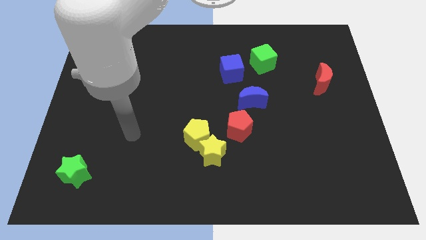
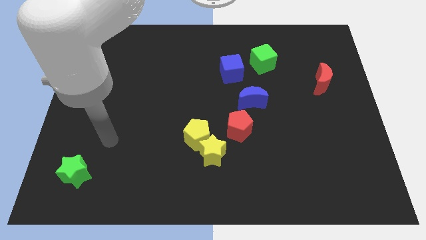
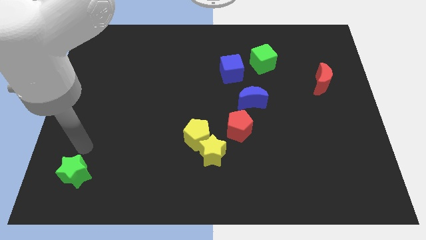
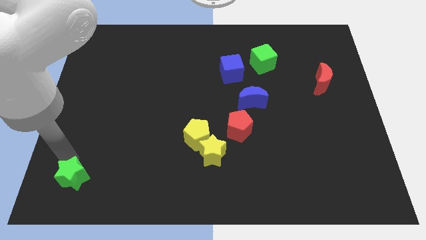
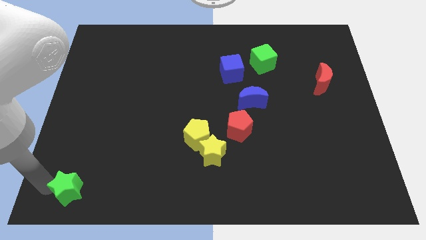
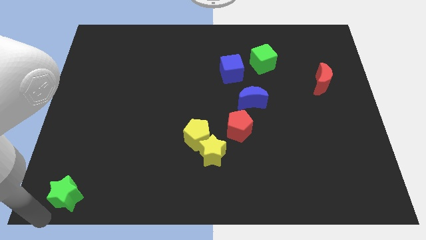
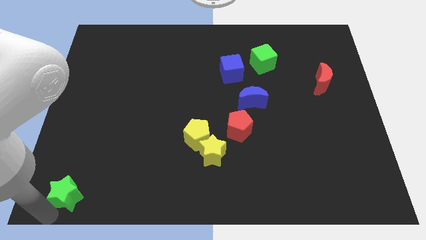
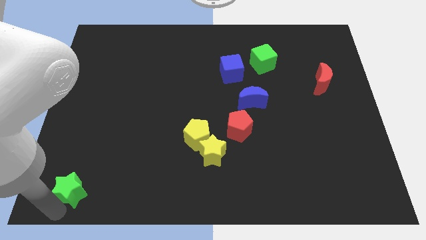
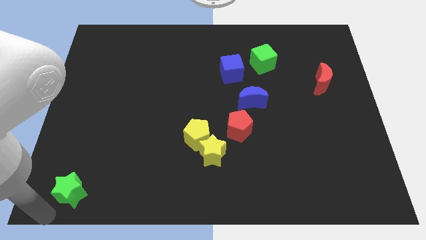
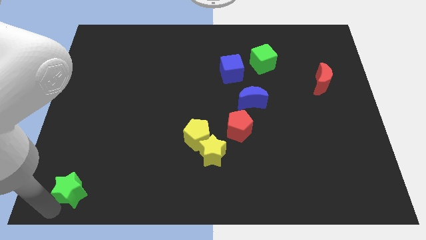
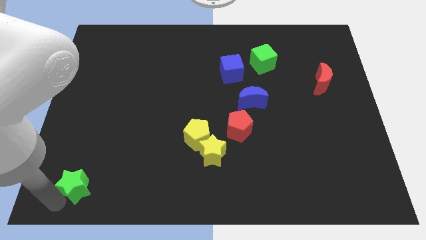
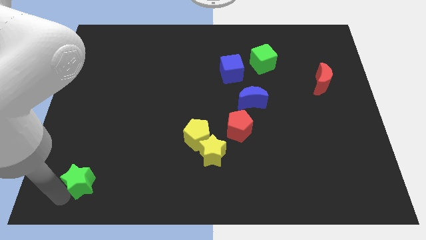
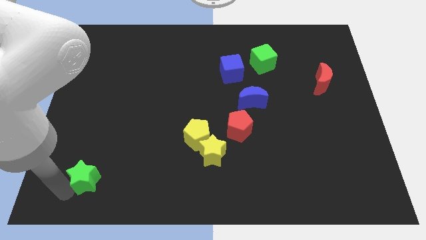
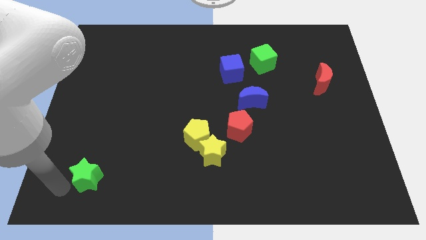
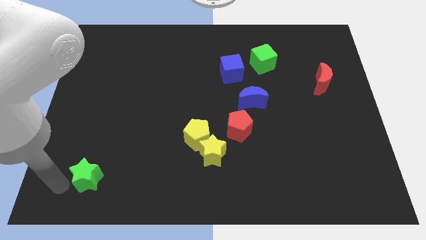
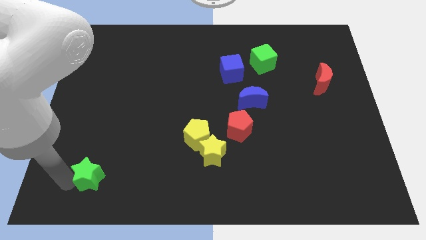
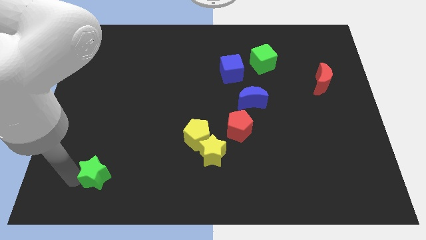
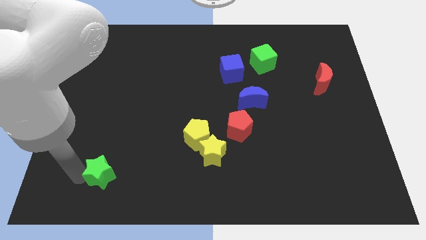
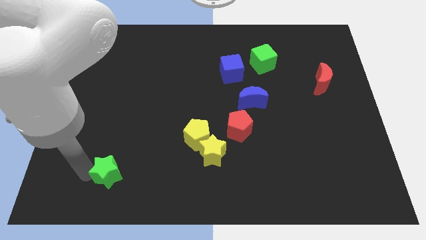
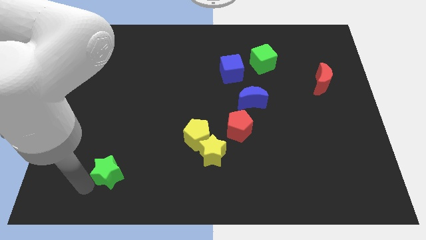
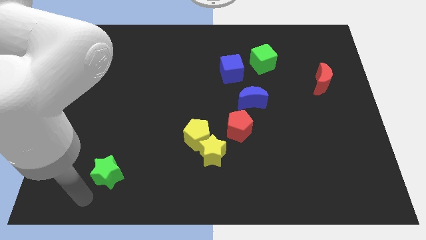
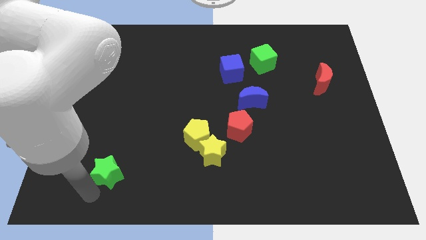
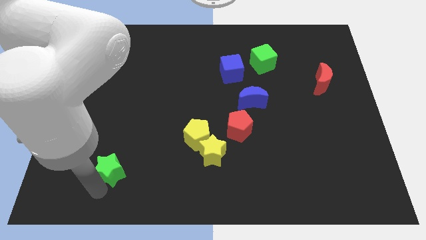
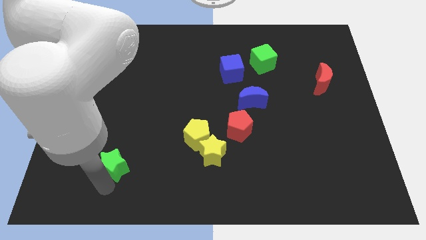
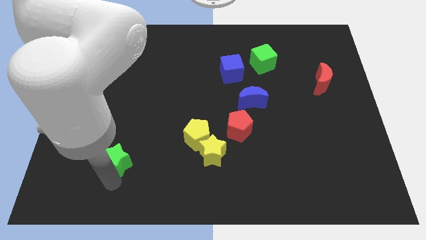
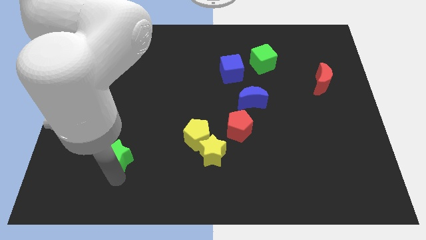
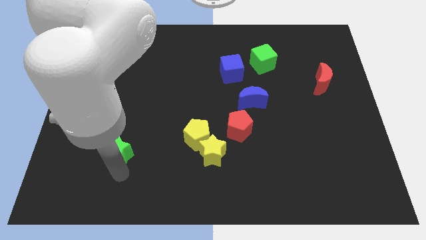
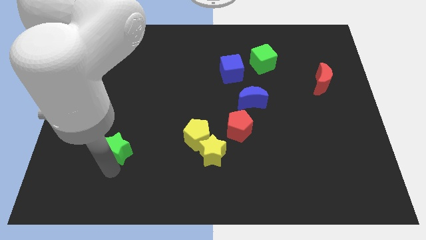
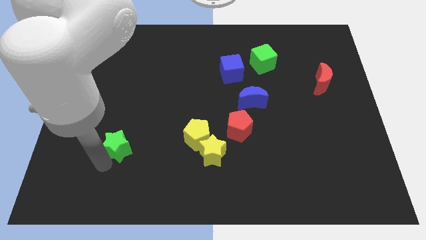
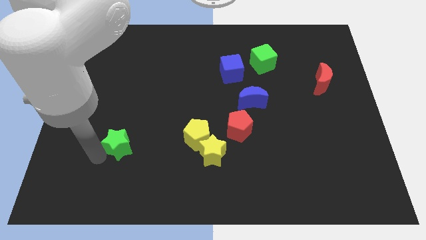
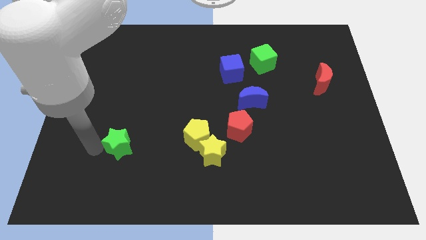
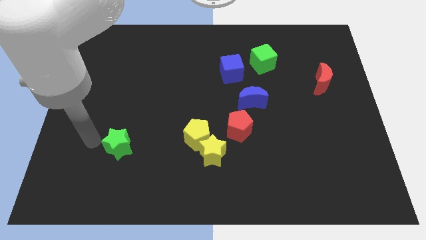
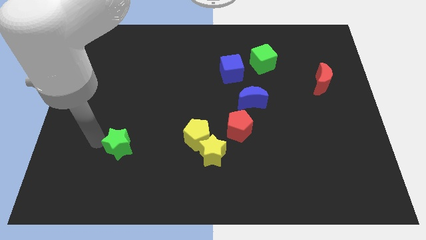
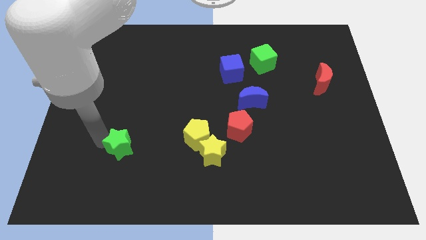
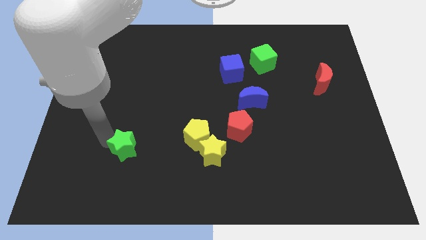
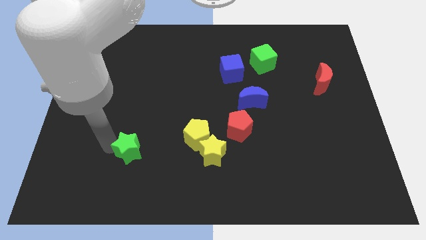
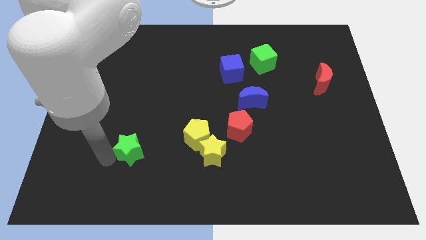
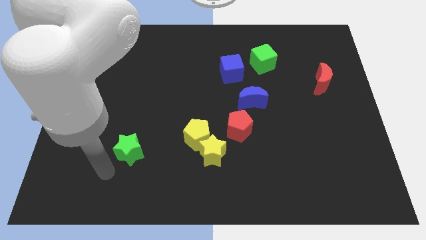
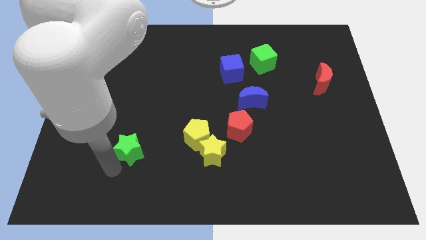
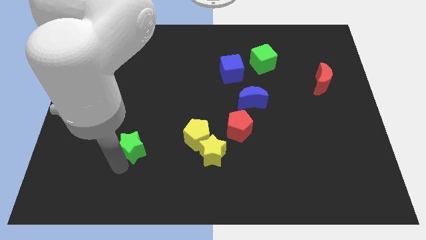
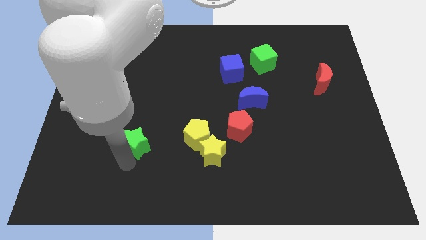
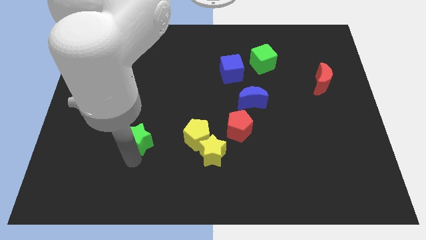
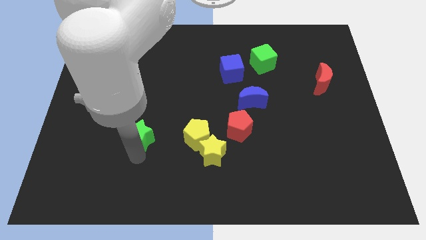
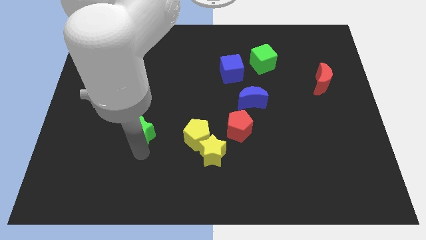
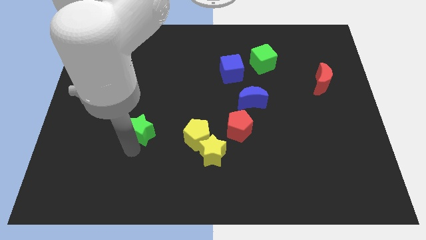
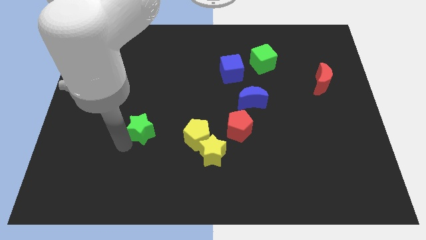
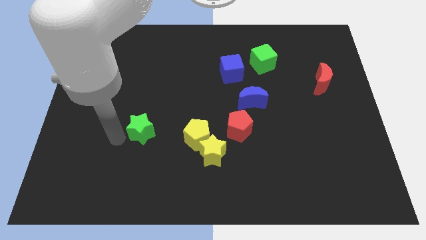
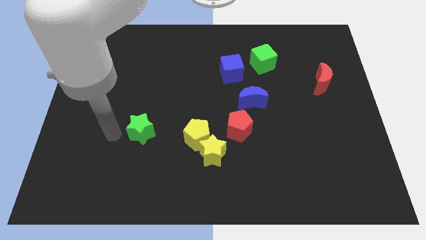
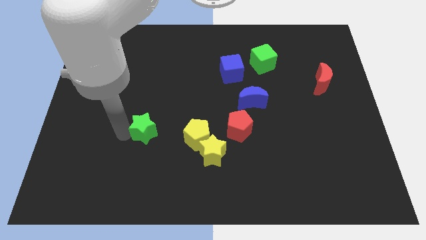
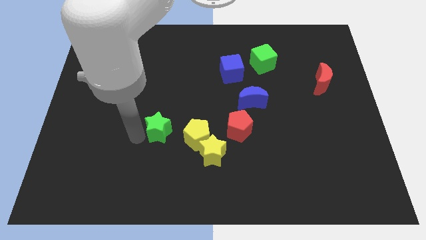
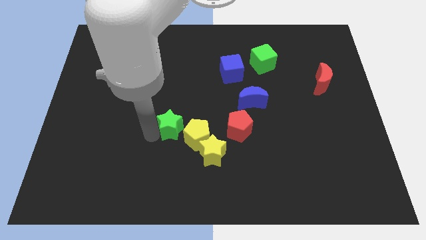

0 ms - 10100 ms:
move the green star to the center of the board

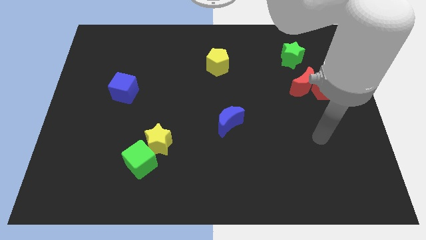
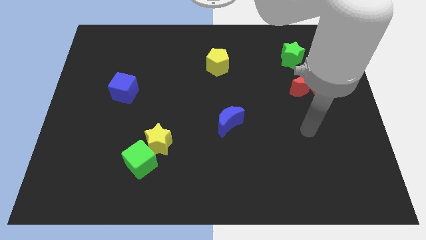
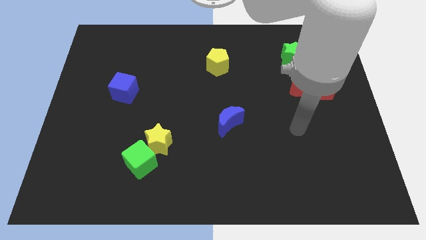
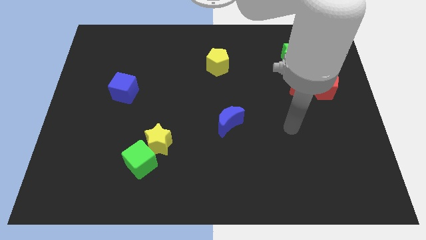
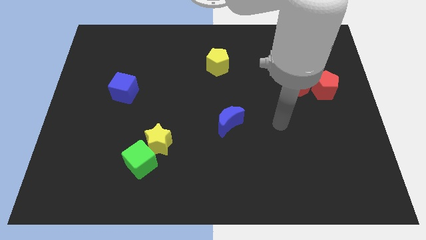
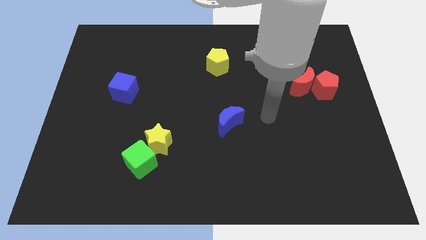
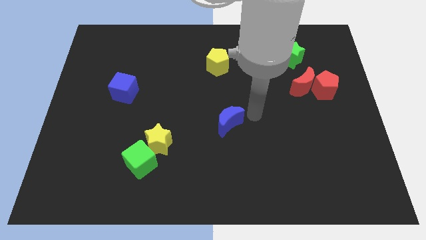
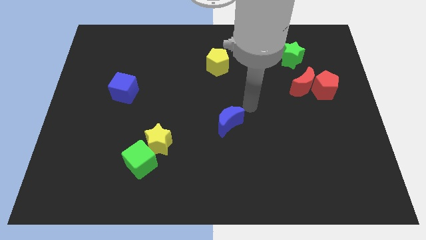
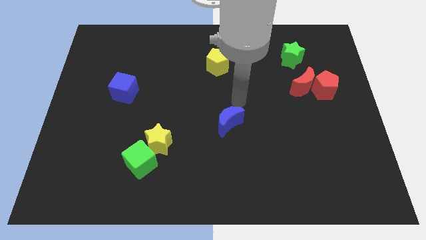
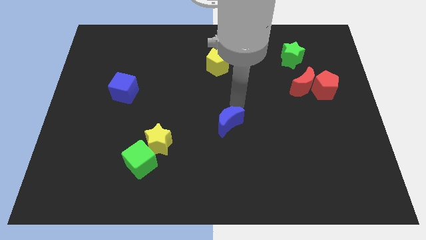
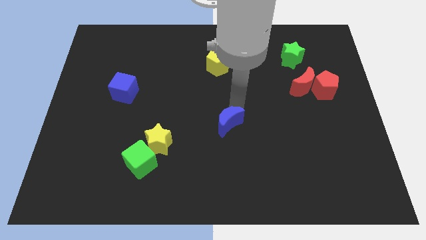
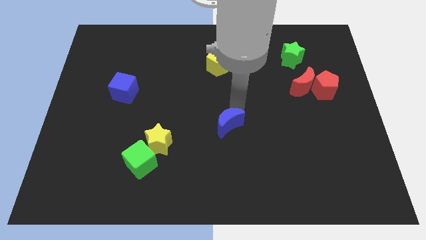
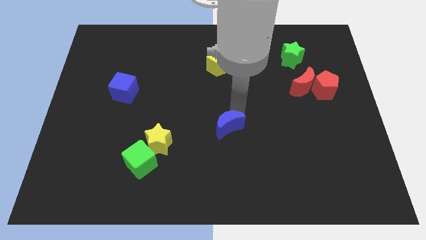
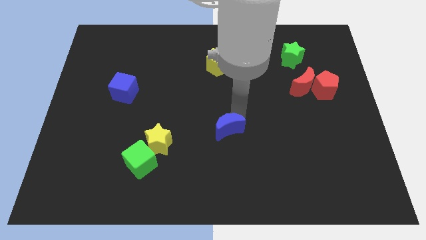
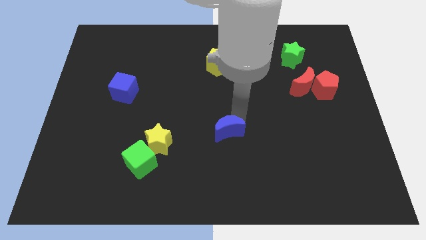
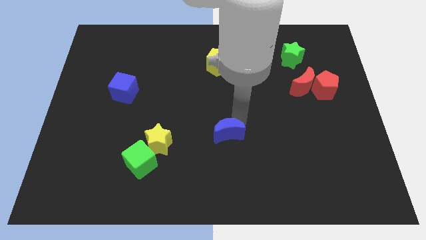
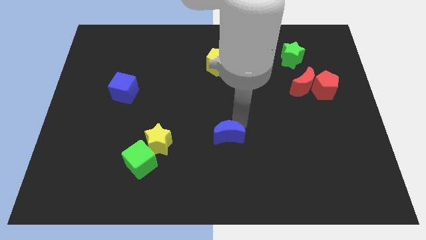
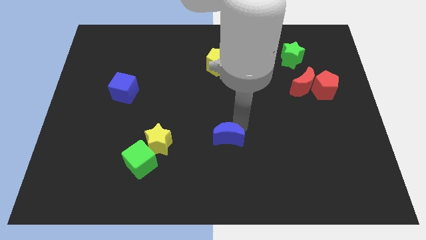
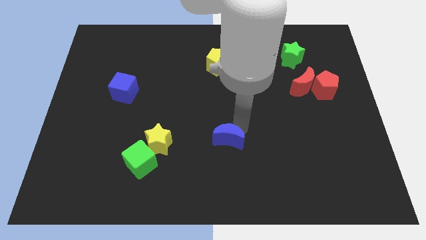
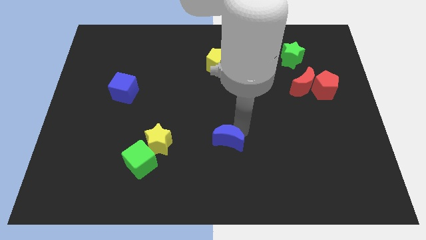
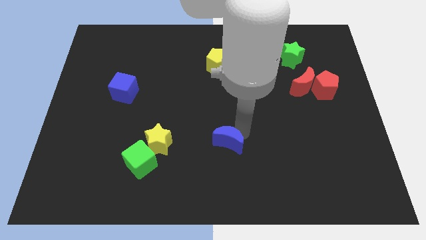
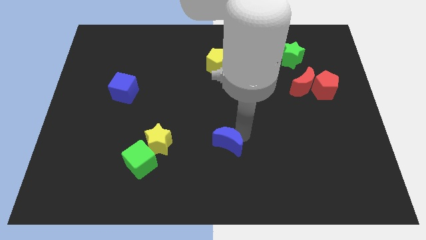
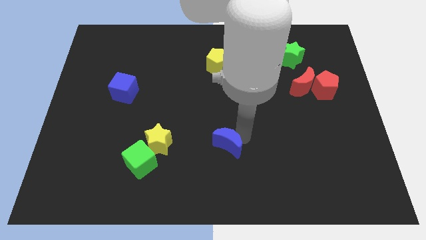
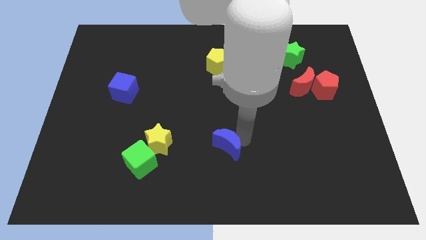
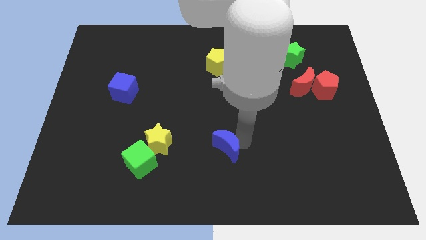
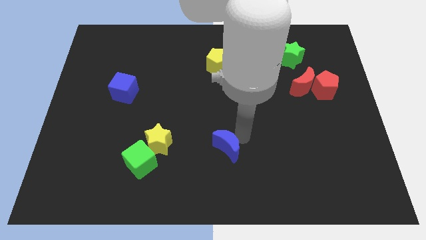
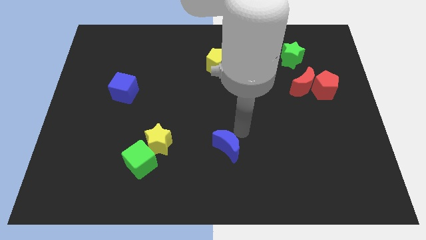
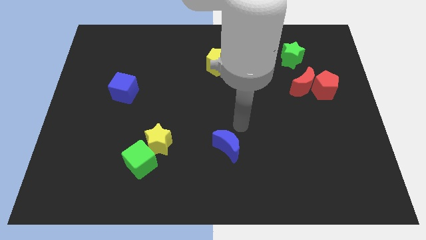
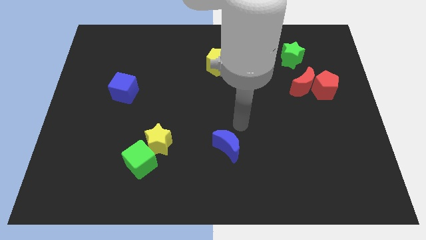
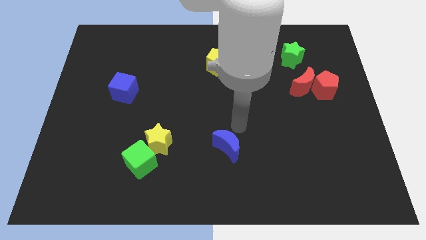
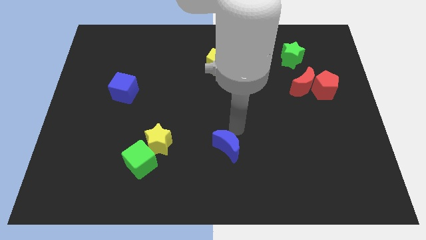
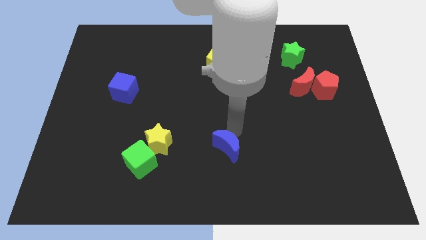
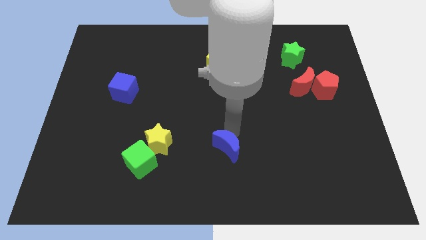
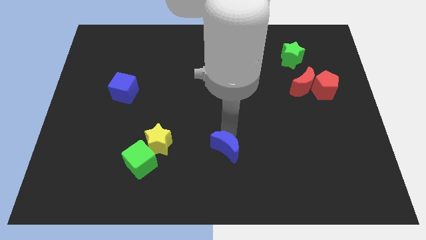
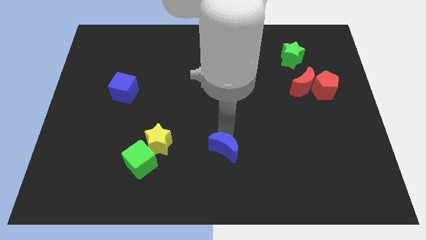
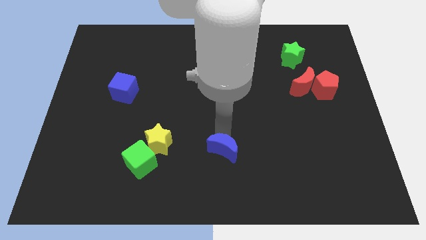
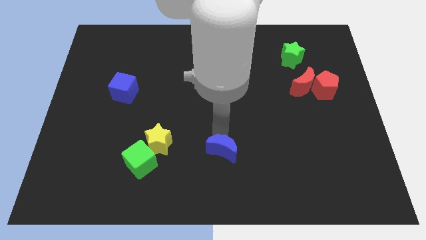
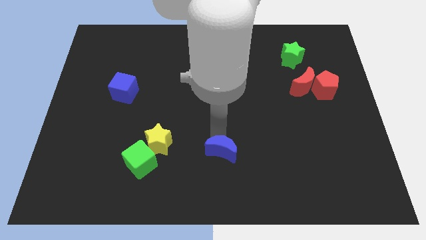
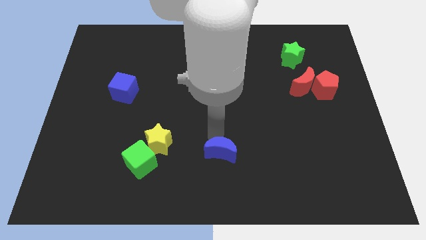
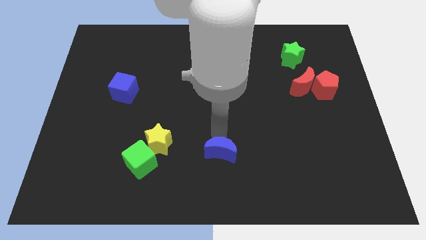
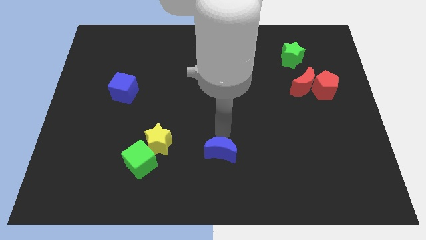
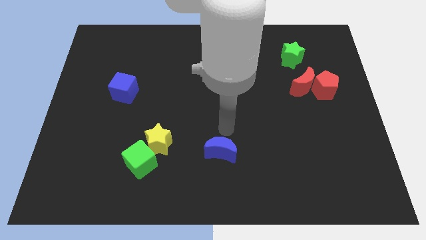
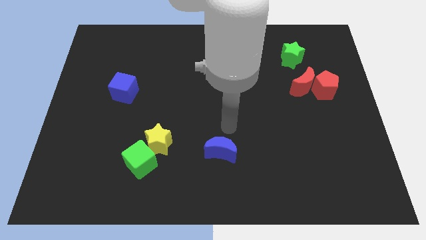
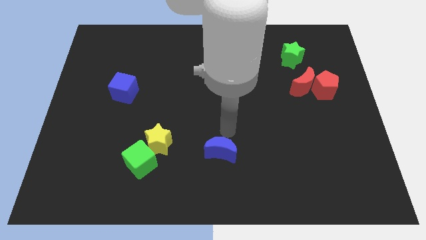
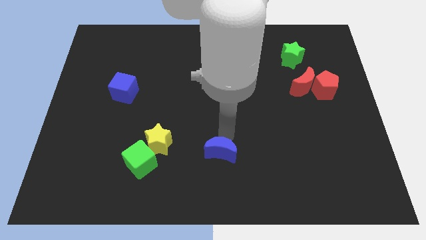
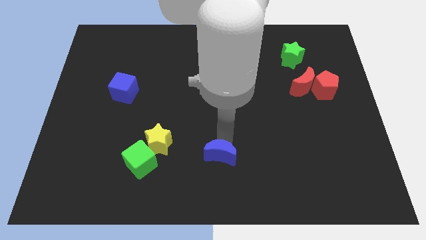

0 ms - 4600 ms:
slide the blue moon to the bottom
